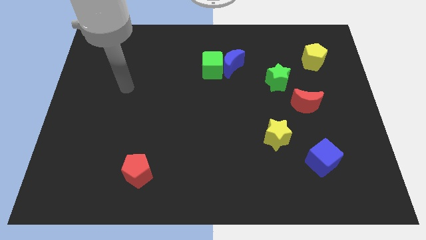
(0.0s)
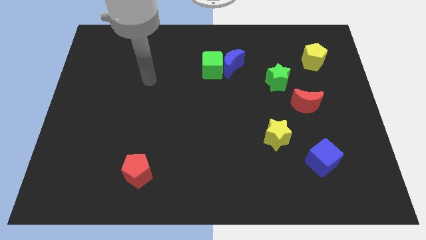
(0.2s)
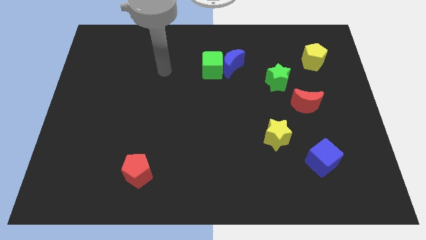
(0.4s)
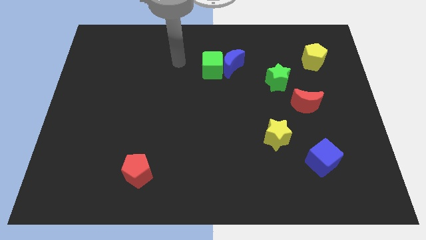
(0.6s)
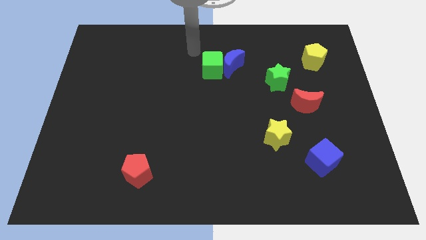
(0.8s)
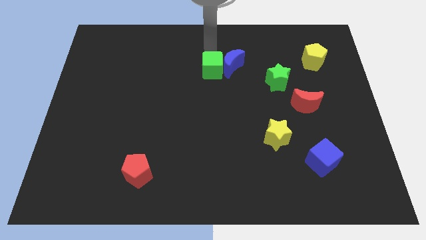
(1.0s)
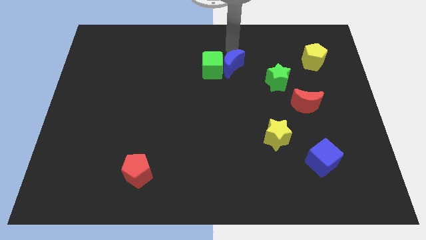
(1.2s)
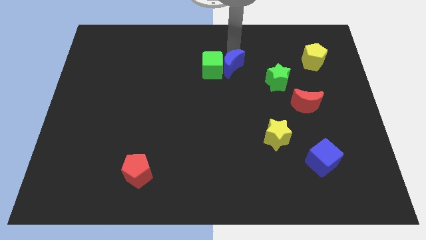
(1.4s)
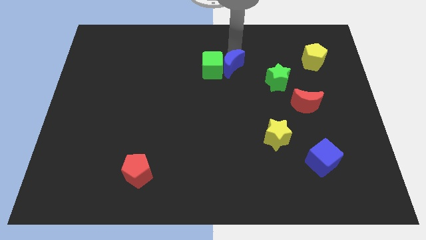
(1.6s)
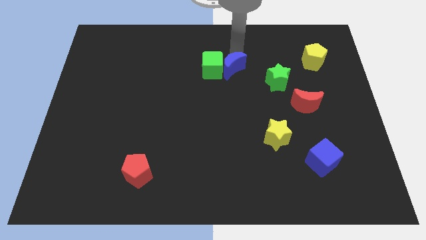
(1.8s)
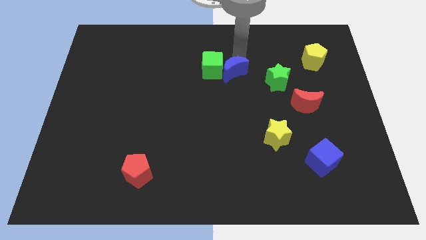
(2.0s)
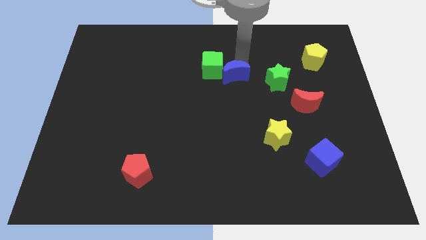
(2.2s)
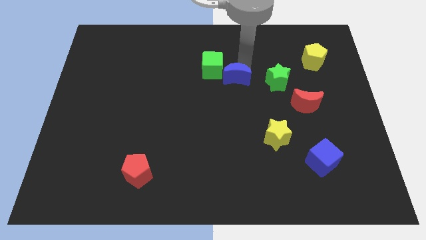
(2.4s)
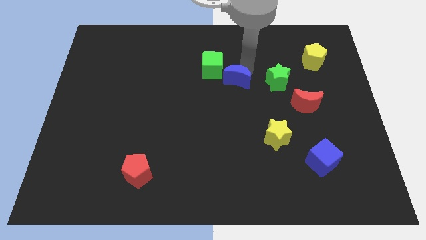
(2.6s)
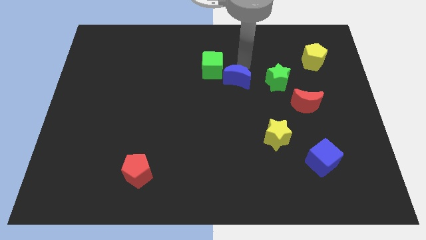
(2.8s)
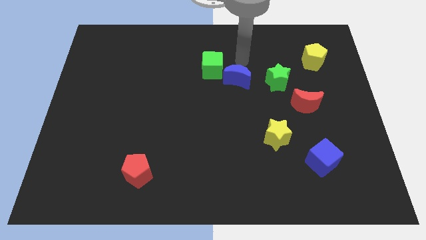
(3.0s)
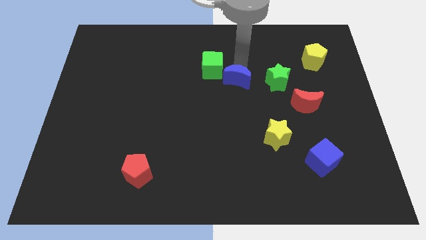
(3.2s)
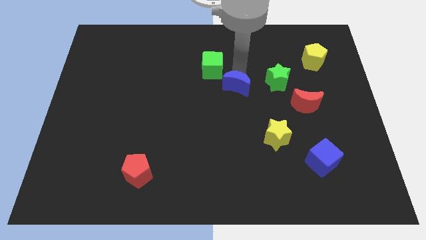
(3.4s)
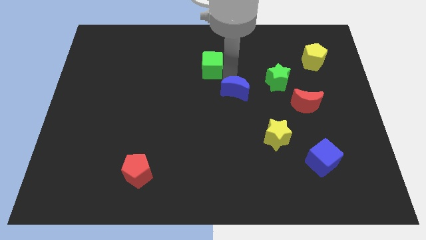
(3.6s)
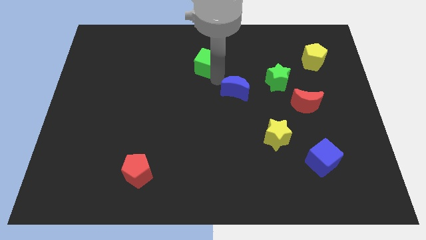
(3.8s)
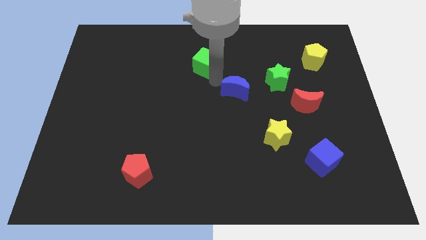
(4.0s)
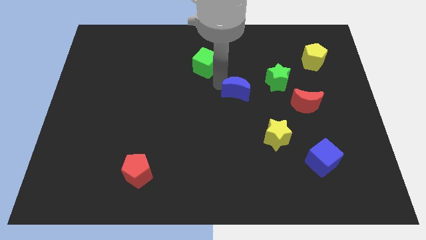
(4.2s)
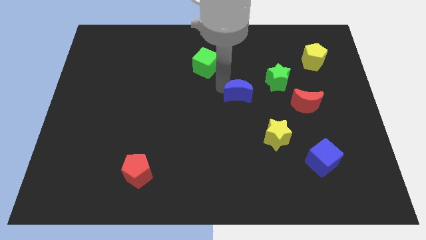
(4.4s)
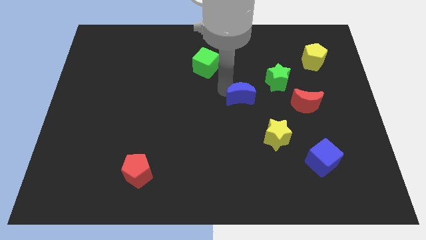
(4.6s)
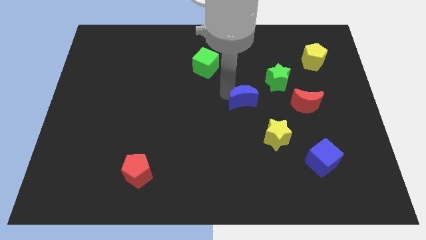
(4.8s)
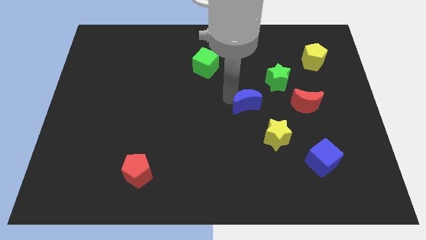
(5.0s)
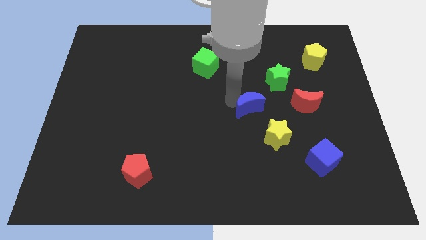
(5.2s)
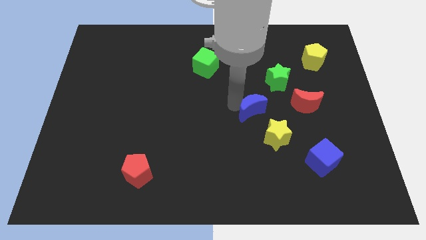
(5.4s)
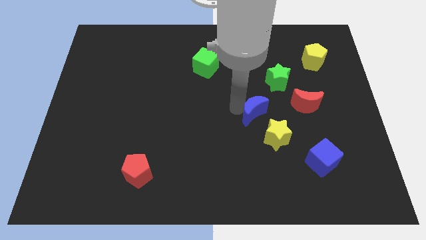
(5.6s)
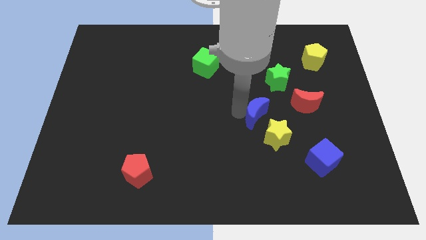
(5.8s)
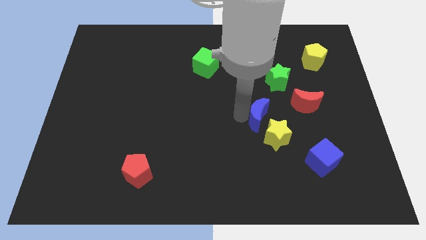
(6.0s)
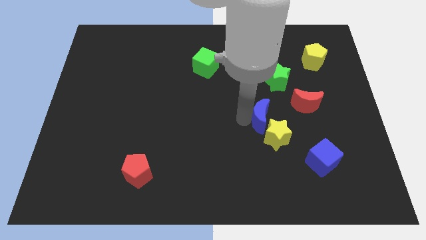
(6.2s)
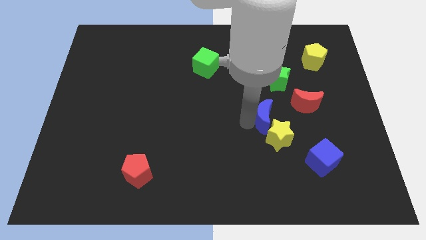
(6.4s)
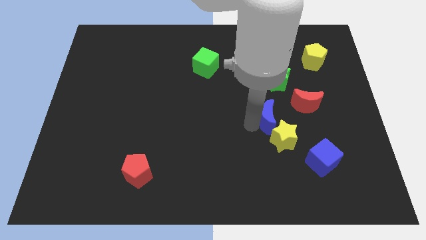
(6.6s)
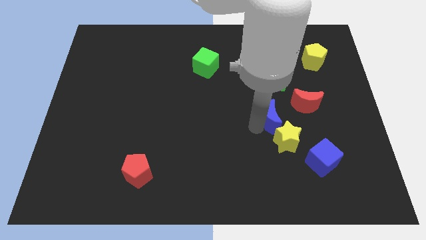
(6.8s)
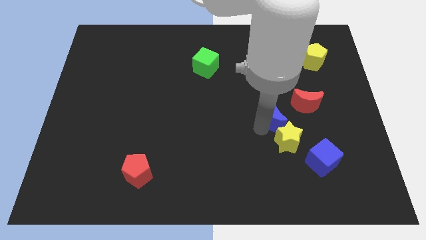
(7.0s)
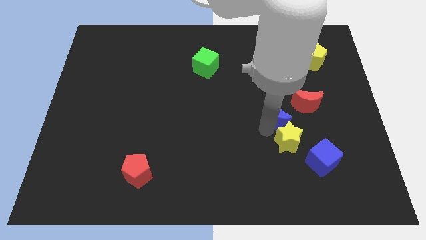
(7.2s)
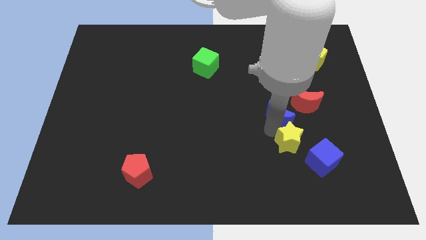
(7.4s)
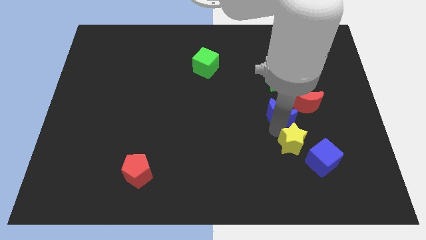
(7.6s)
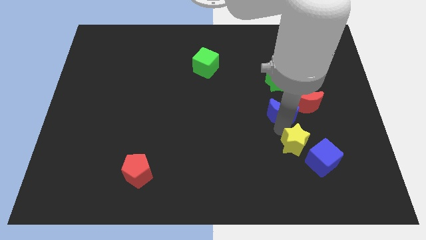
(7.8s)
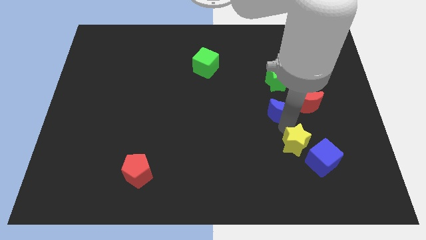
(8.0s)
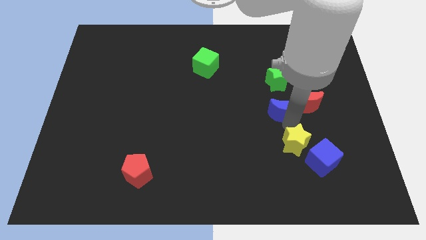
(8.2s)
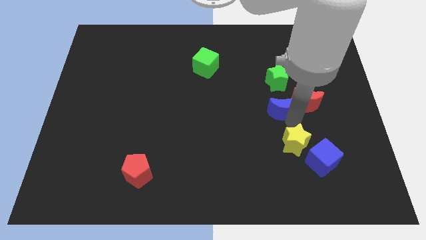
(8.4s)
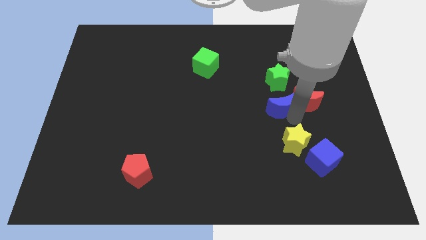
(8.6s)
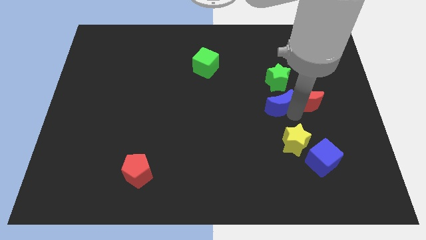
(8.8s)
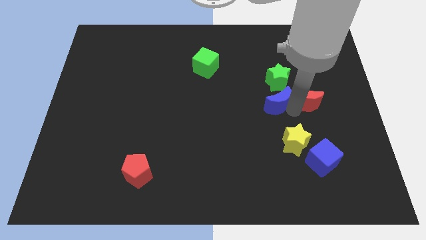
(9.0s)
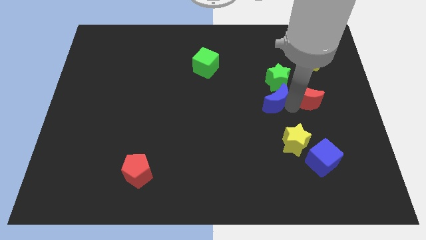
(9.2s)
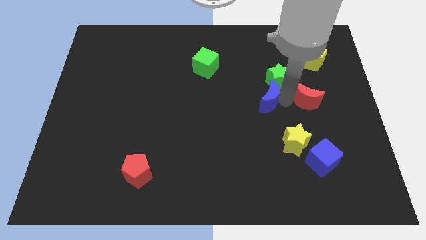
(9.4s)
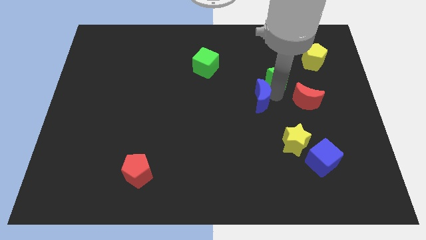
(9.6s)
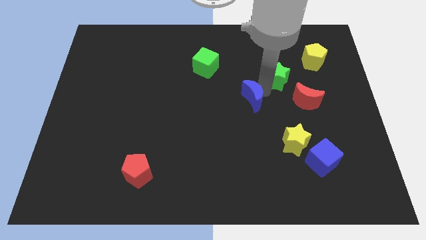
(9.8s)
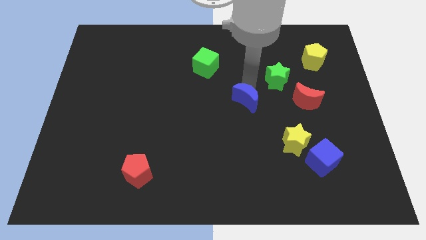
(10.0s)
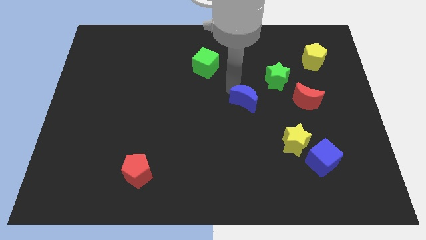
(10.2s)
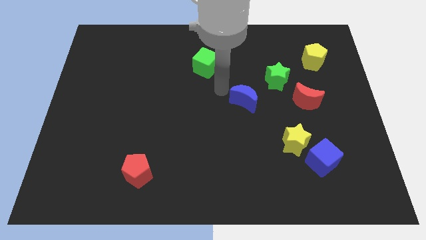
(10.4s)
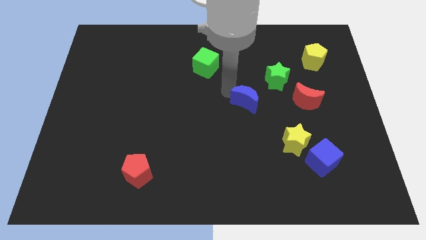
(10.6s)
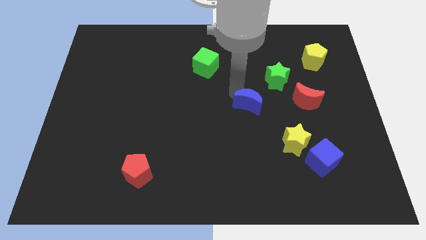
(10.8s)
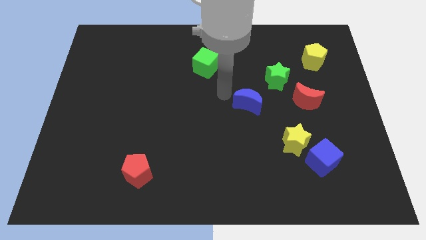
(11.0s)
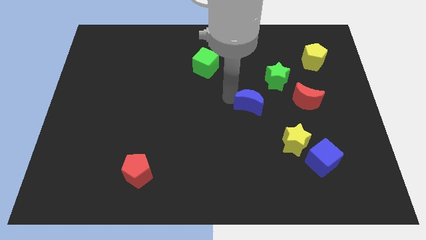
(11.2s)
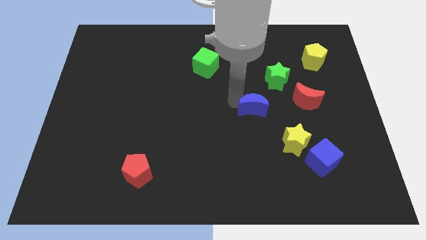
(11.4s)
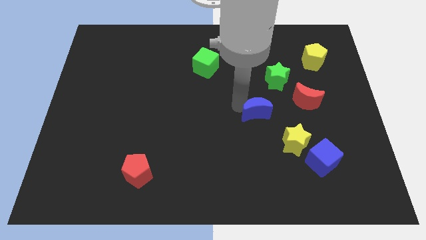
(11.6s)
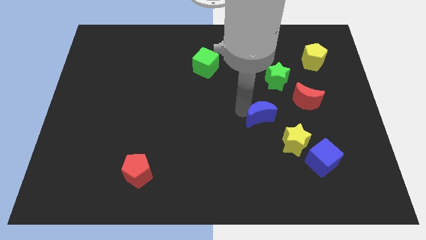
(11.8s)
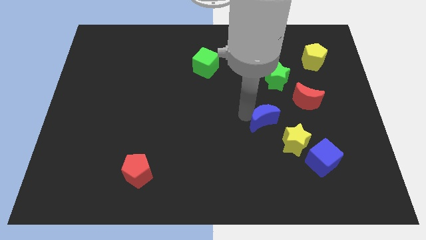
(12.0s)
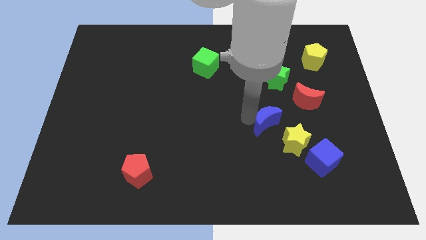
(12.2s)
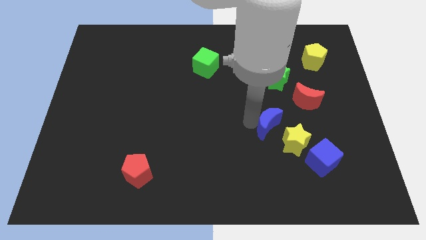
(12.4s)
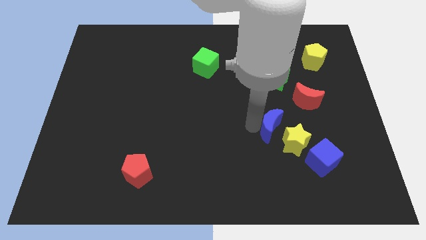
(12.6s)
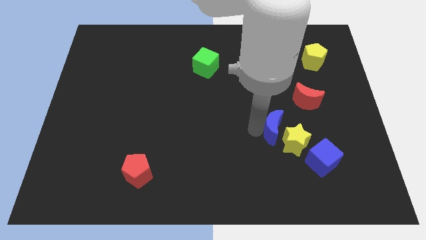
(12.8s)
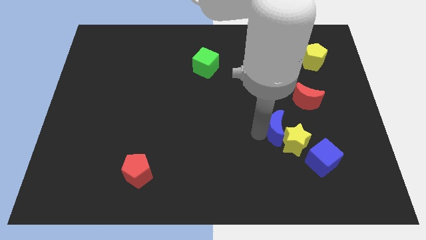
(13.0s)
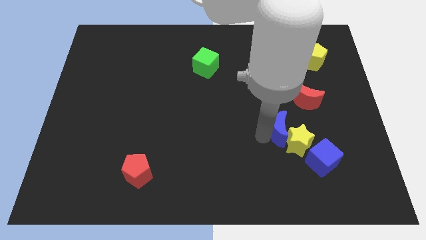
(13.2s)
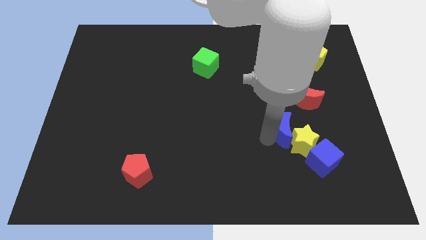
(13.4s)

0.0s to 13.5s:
move the blue moon diagonally downwards and right

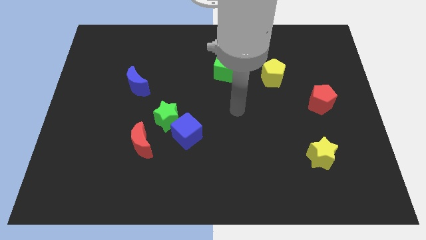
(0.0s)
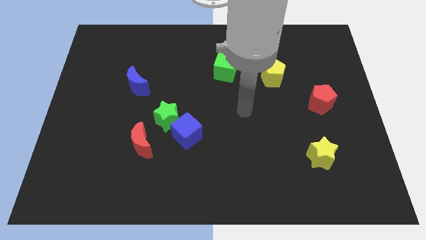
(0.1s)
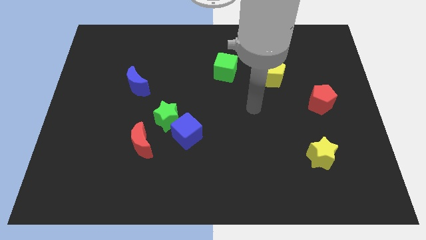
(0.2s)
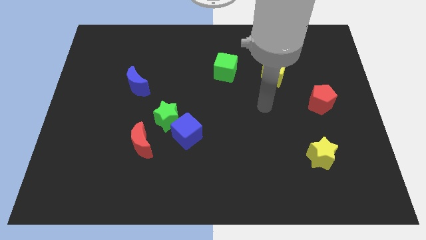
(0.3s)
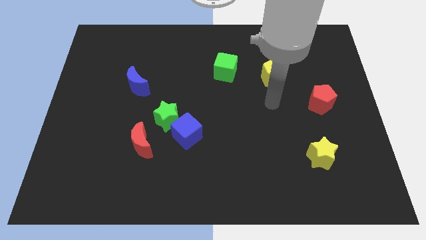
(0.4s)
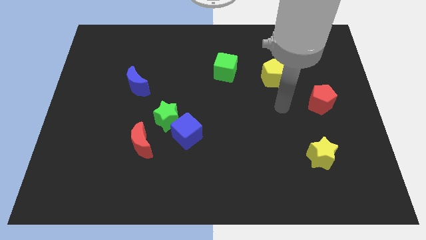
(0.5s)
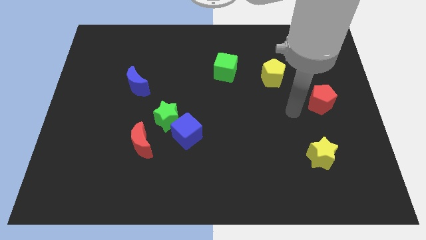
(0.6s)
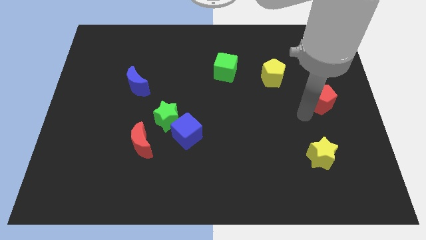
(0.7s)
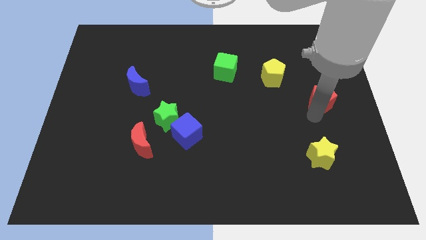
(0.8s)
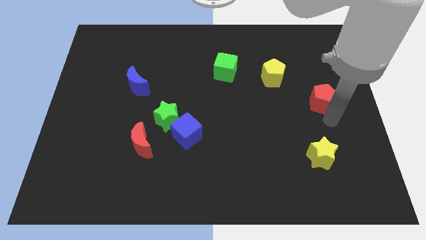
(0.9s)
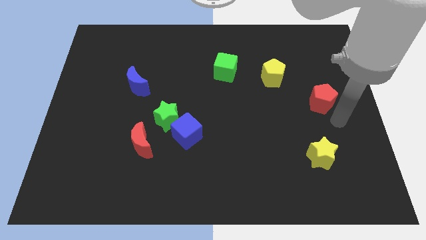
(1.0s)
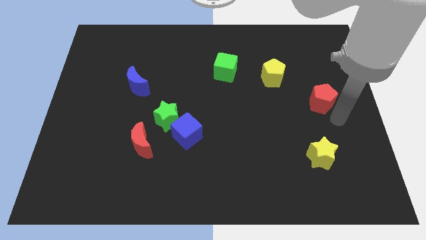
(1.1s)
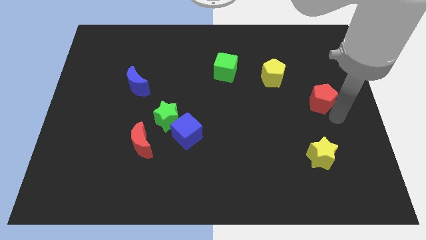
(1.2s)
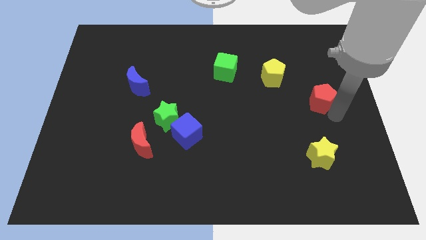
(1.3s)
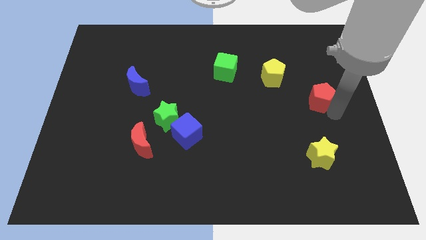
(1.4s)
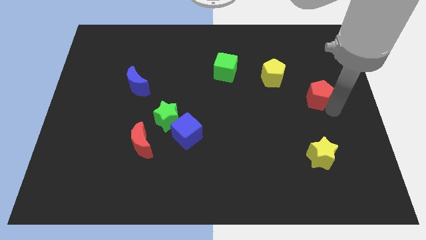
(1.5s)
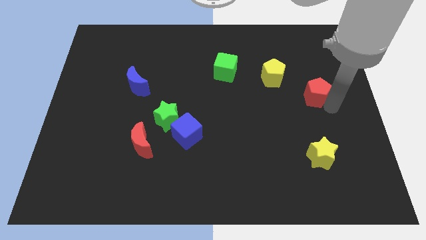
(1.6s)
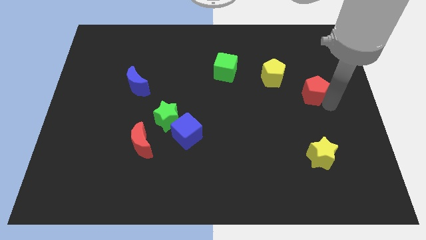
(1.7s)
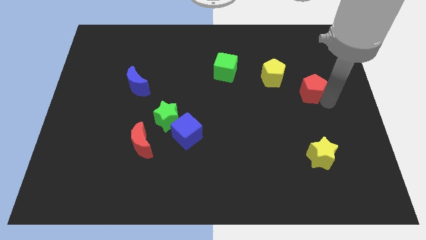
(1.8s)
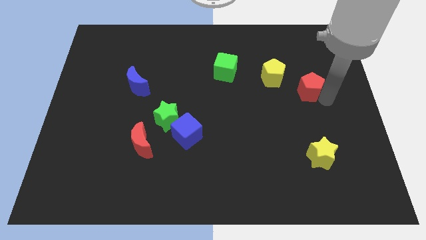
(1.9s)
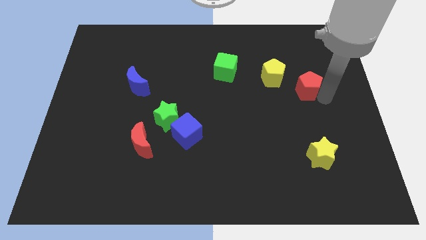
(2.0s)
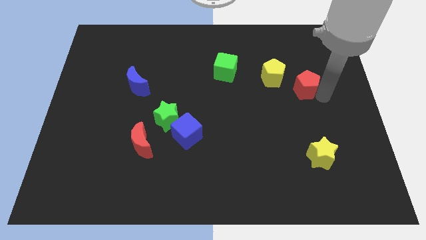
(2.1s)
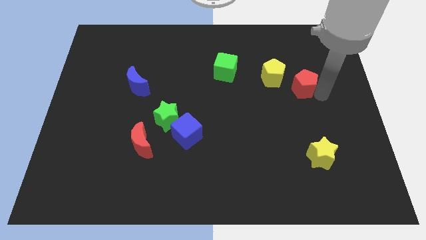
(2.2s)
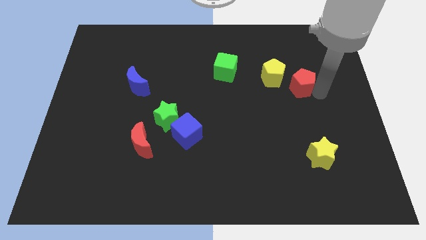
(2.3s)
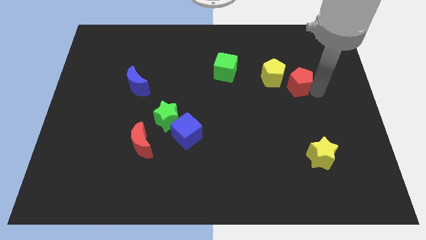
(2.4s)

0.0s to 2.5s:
slightly move the red pentagon up and to the left diagonally
